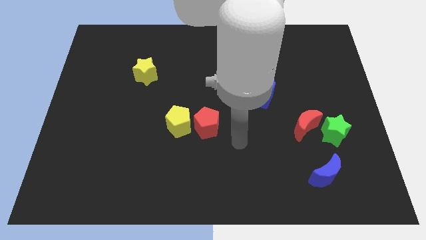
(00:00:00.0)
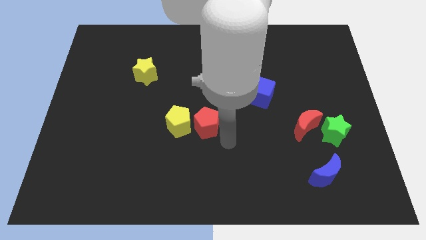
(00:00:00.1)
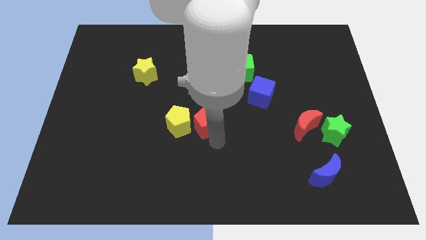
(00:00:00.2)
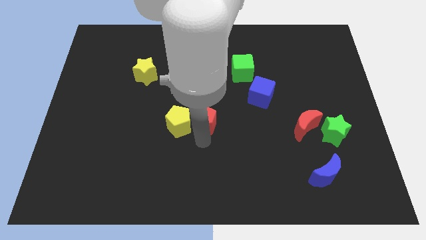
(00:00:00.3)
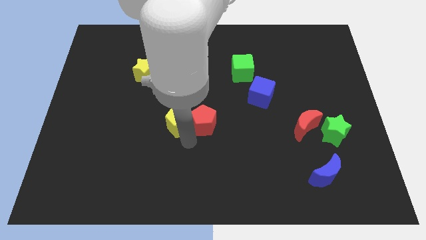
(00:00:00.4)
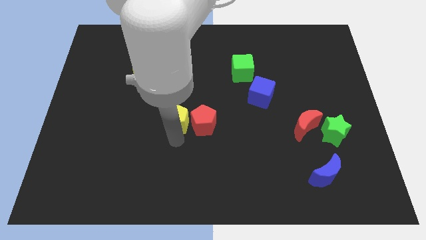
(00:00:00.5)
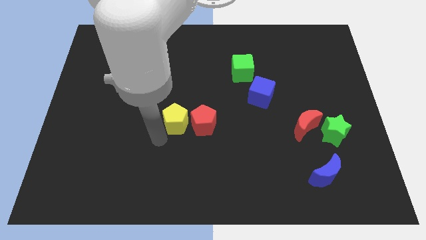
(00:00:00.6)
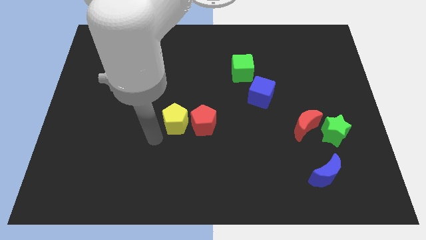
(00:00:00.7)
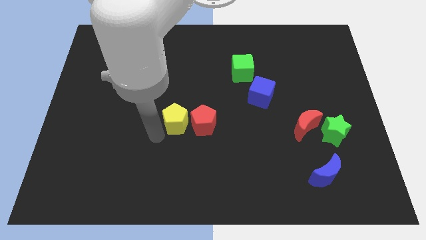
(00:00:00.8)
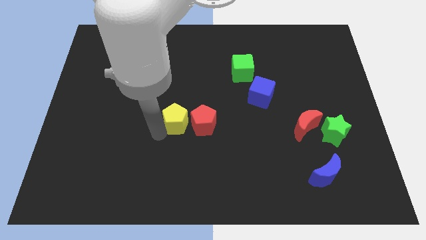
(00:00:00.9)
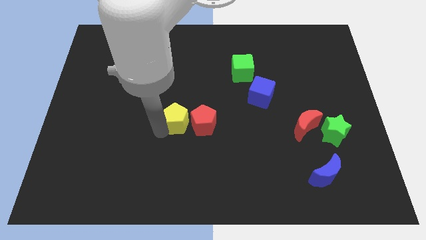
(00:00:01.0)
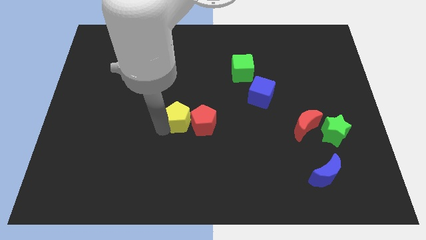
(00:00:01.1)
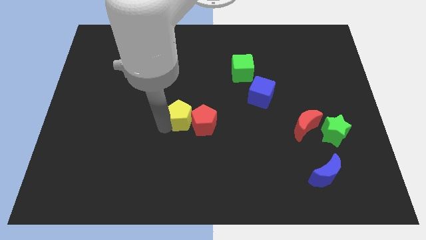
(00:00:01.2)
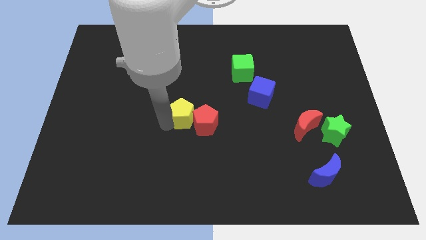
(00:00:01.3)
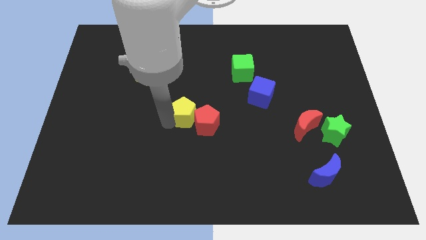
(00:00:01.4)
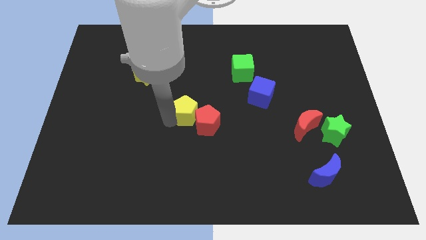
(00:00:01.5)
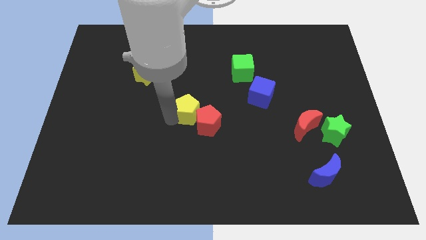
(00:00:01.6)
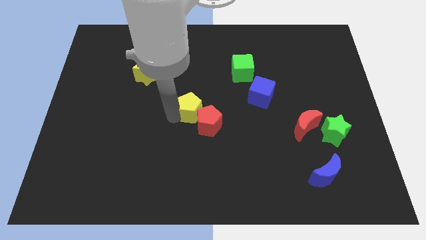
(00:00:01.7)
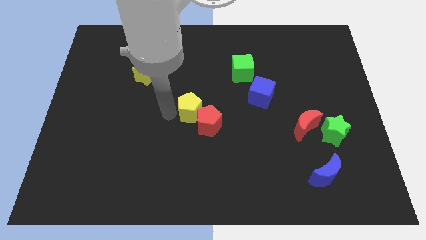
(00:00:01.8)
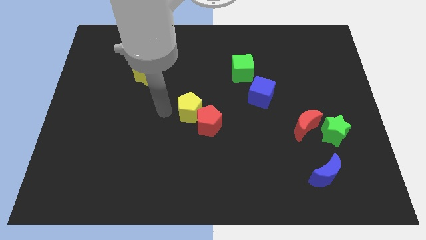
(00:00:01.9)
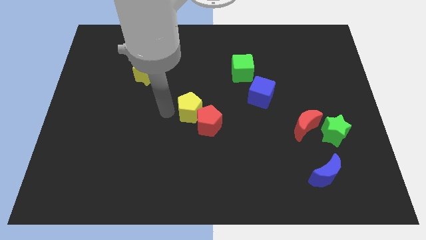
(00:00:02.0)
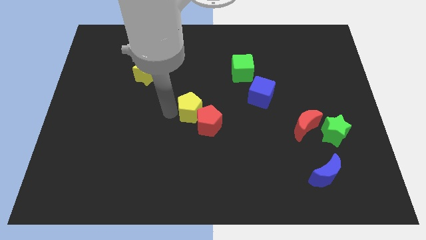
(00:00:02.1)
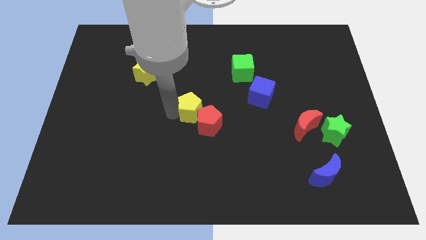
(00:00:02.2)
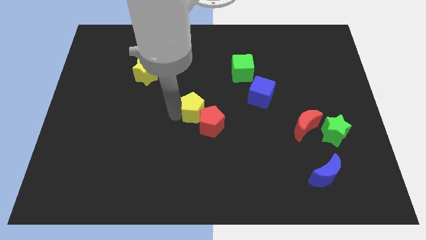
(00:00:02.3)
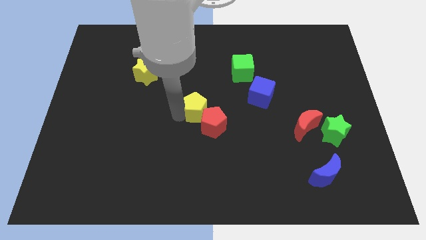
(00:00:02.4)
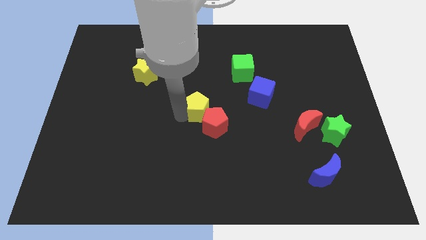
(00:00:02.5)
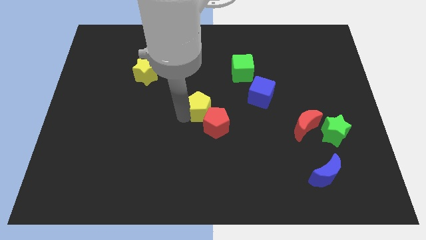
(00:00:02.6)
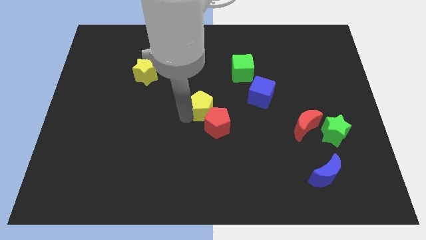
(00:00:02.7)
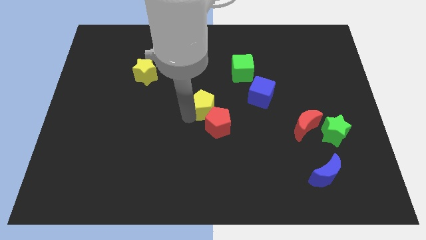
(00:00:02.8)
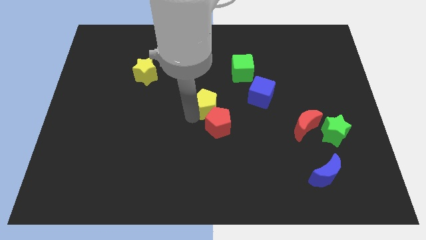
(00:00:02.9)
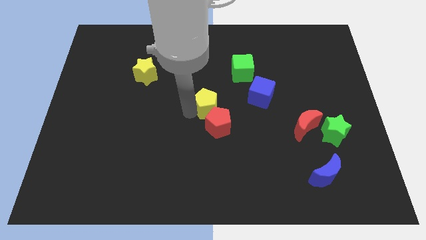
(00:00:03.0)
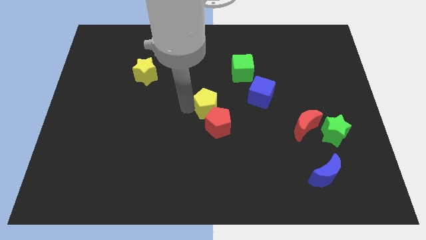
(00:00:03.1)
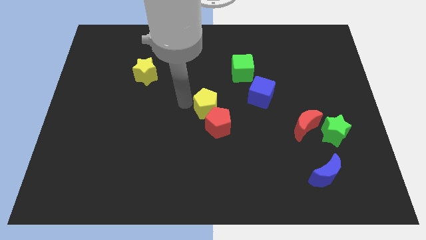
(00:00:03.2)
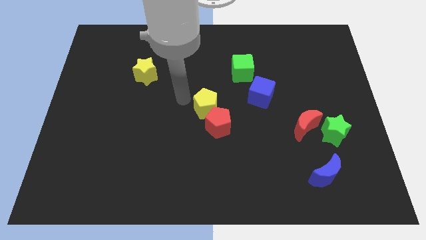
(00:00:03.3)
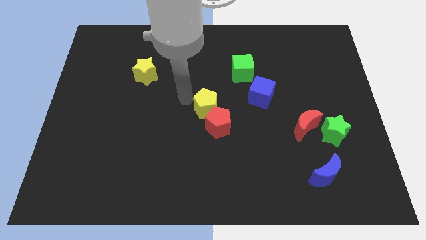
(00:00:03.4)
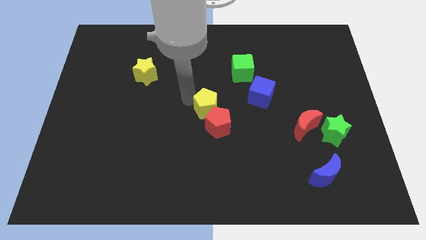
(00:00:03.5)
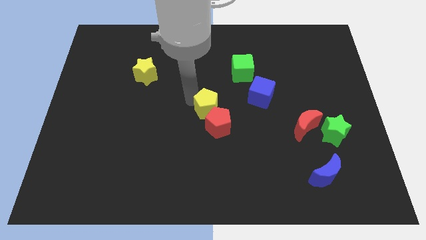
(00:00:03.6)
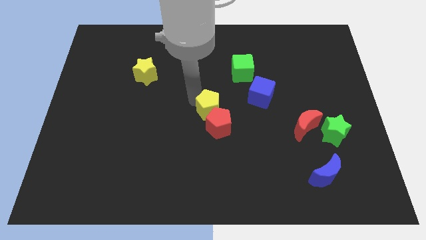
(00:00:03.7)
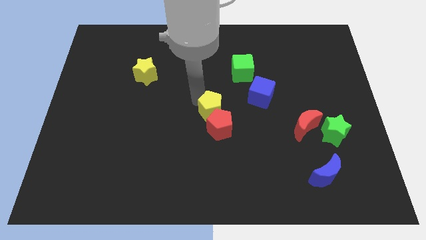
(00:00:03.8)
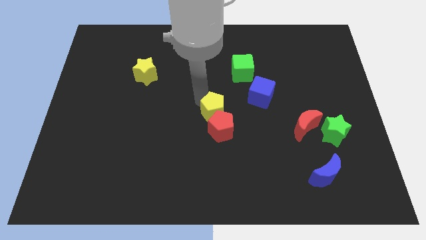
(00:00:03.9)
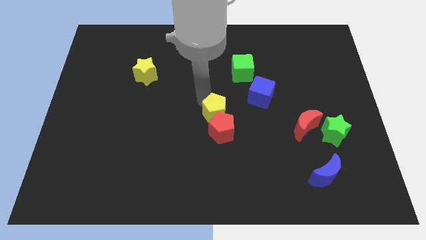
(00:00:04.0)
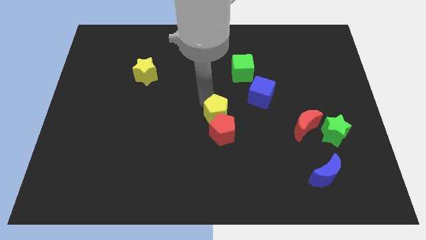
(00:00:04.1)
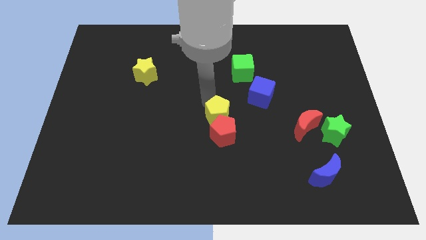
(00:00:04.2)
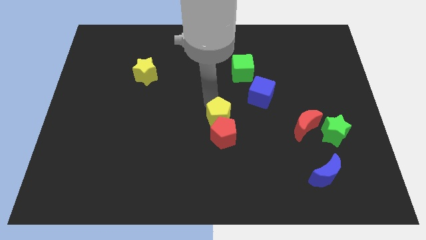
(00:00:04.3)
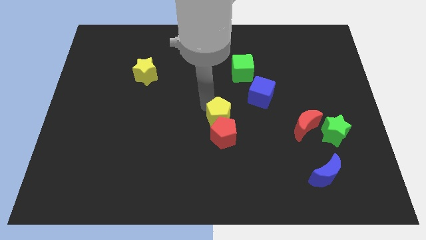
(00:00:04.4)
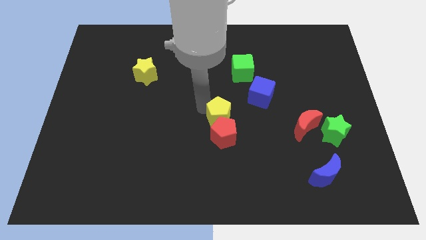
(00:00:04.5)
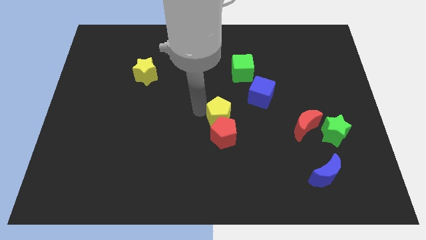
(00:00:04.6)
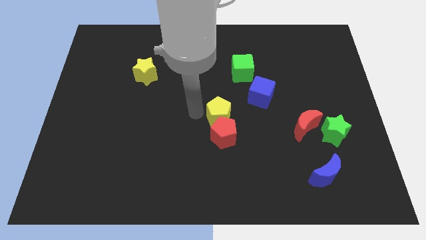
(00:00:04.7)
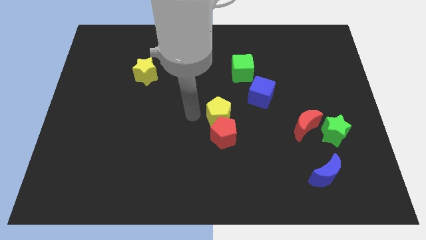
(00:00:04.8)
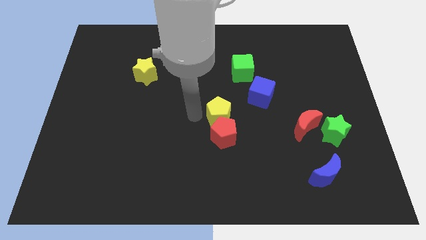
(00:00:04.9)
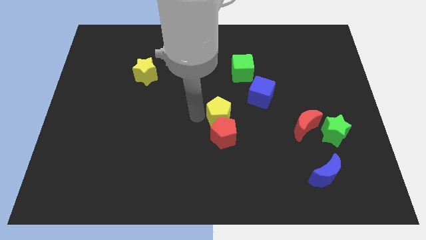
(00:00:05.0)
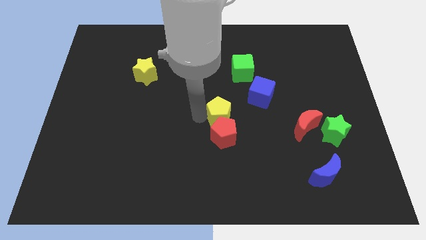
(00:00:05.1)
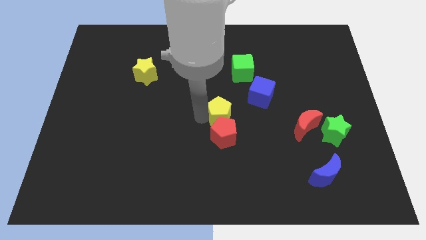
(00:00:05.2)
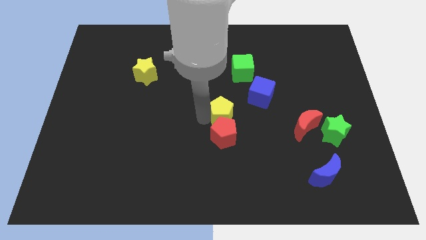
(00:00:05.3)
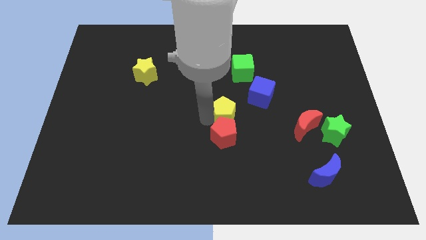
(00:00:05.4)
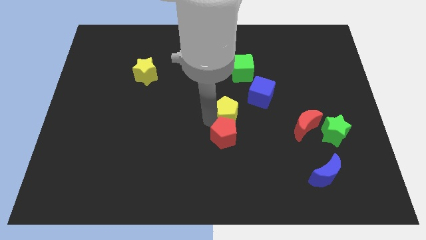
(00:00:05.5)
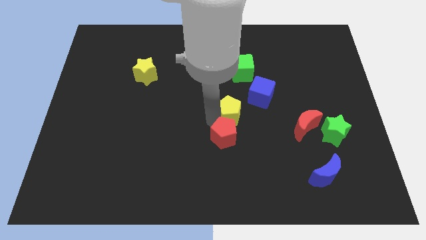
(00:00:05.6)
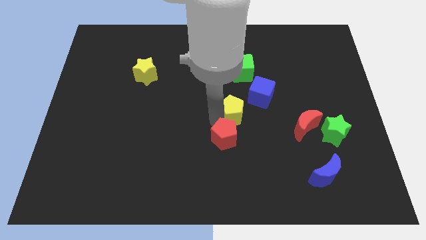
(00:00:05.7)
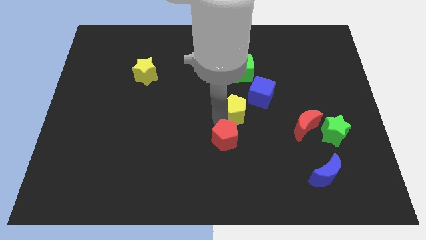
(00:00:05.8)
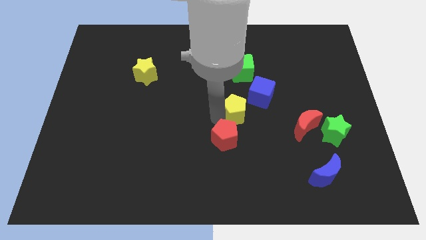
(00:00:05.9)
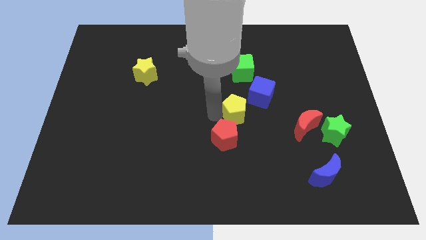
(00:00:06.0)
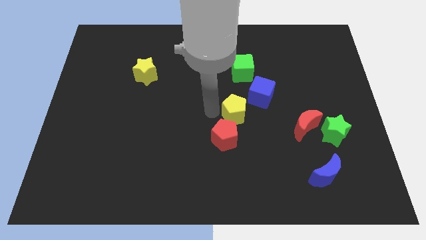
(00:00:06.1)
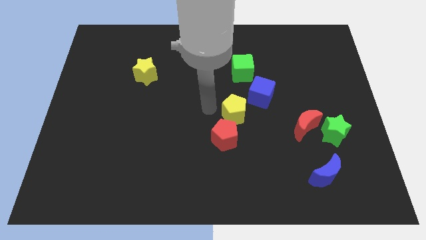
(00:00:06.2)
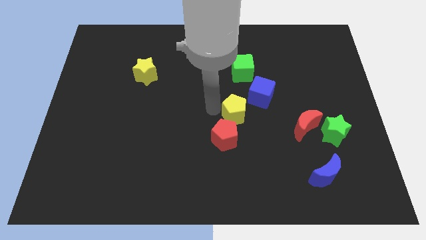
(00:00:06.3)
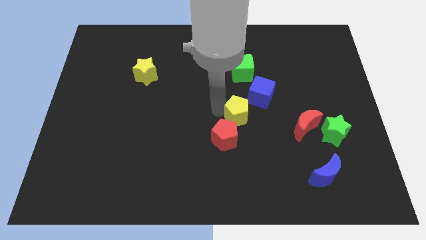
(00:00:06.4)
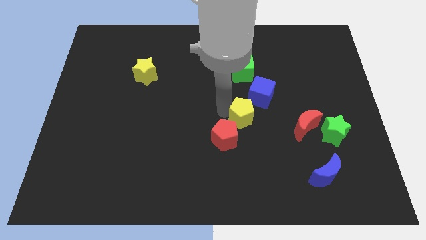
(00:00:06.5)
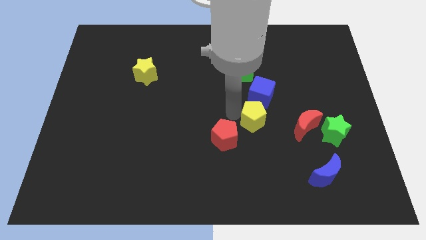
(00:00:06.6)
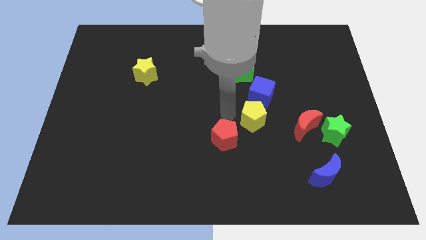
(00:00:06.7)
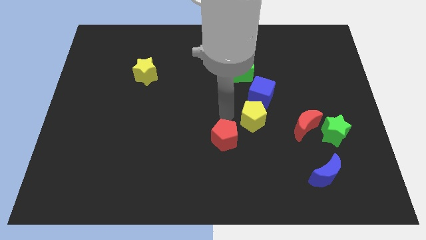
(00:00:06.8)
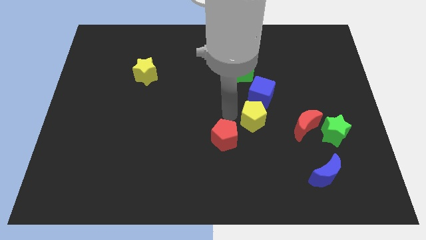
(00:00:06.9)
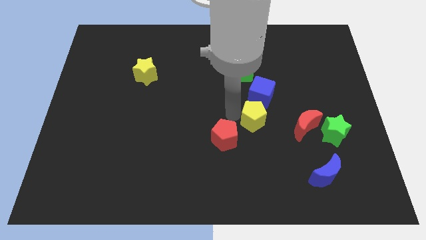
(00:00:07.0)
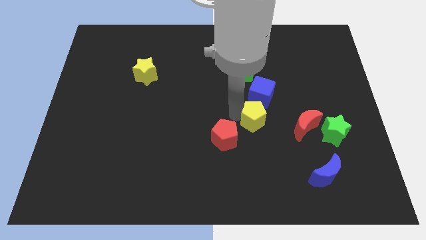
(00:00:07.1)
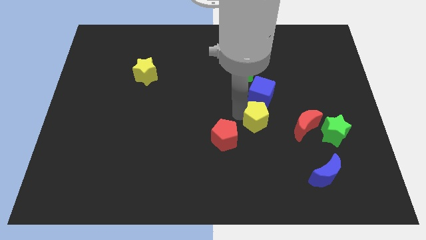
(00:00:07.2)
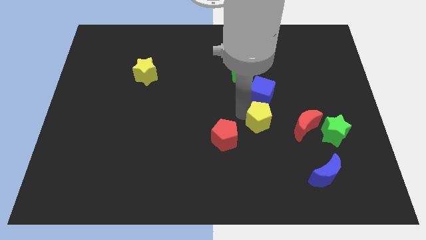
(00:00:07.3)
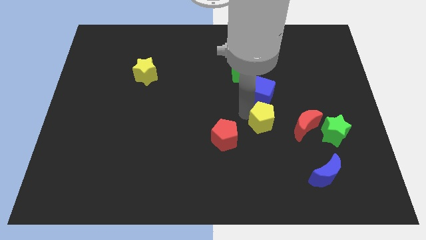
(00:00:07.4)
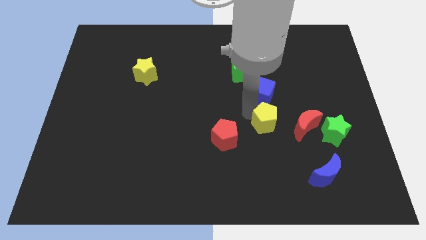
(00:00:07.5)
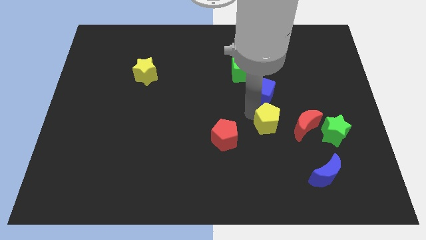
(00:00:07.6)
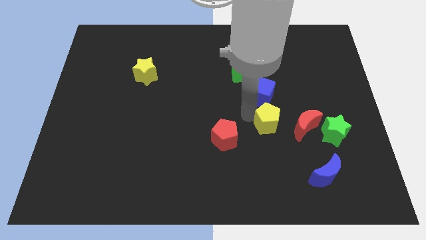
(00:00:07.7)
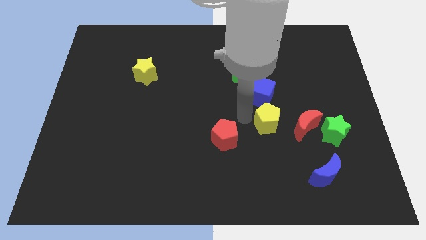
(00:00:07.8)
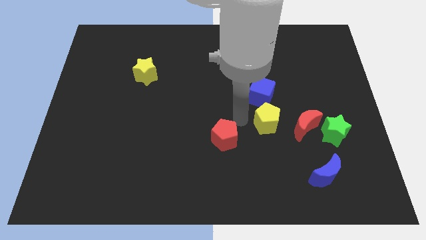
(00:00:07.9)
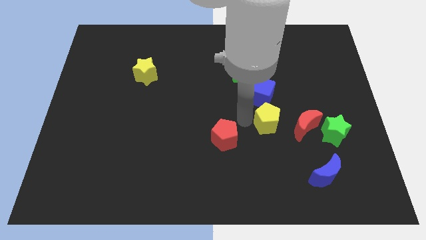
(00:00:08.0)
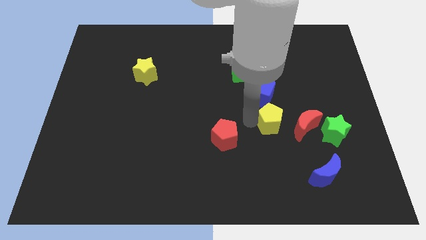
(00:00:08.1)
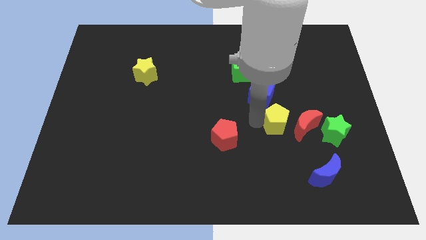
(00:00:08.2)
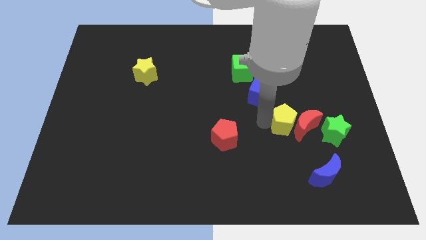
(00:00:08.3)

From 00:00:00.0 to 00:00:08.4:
push the yellow pentagon to the red moon
